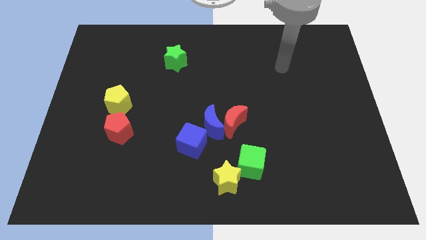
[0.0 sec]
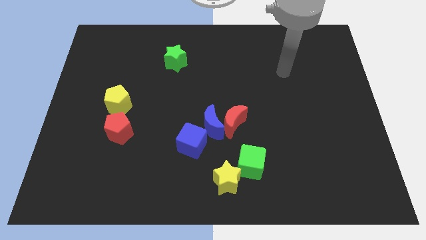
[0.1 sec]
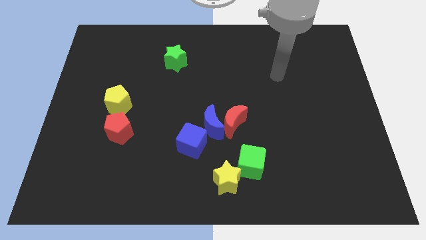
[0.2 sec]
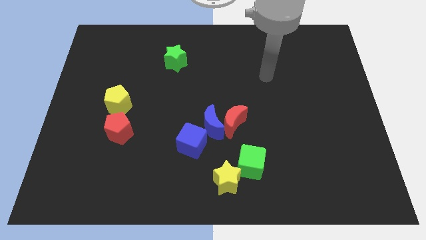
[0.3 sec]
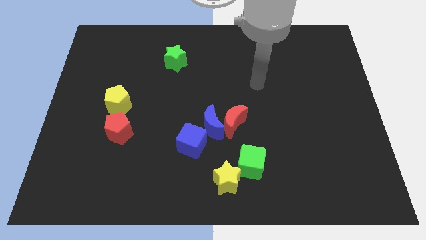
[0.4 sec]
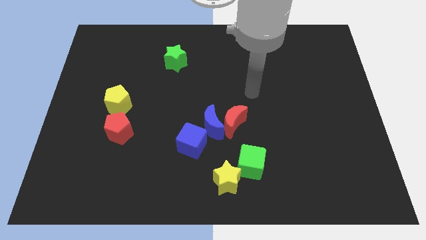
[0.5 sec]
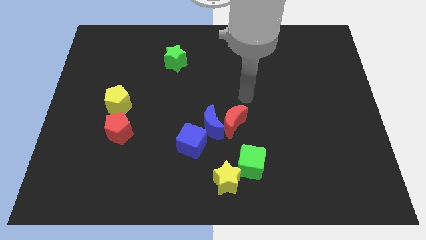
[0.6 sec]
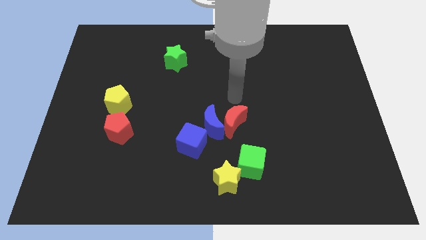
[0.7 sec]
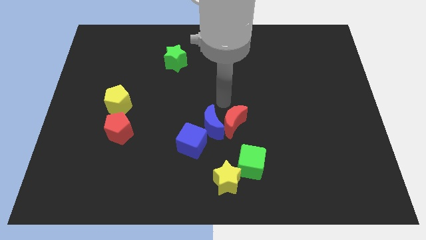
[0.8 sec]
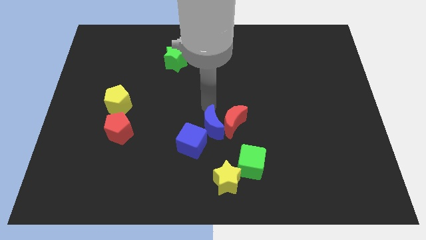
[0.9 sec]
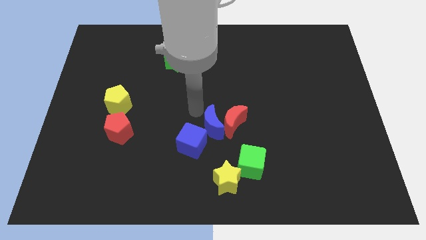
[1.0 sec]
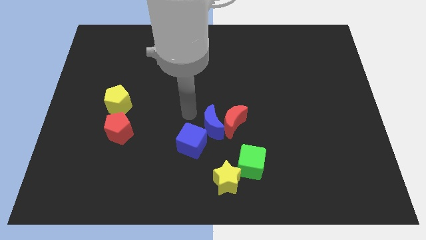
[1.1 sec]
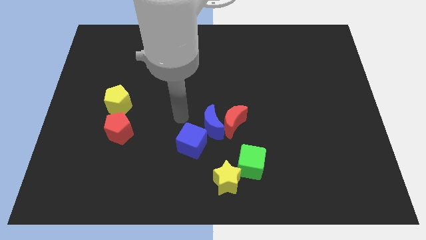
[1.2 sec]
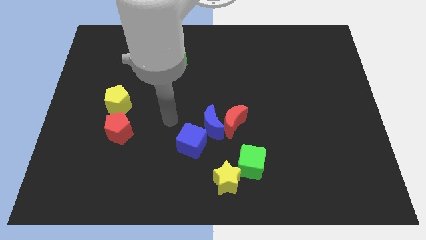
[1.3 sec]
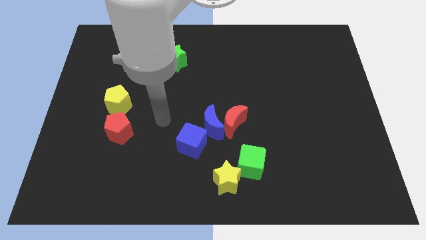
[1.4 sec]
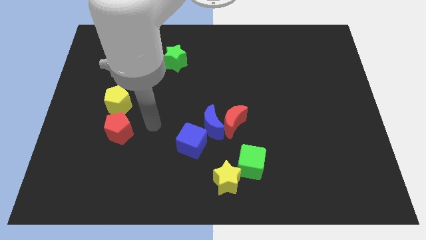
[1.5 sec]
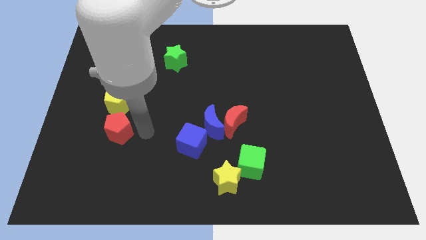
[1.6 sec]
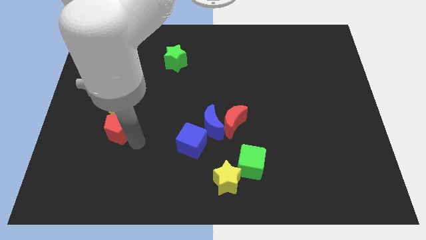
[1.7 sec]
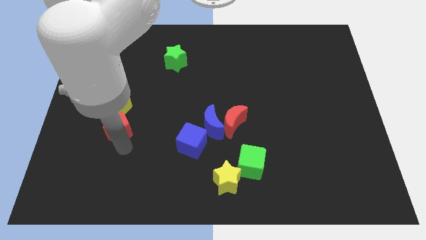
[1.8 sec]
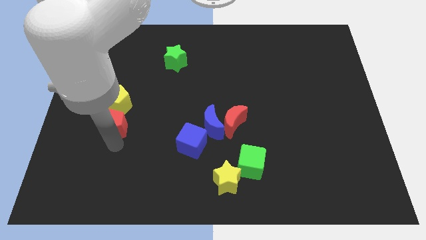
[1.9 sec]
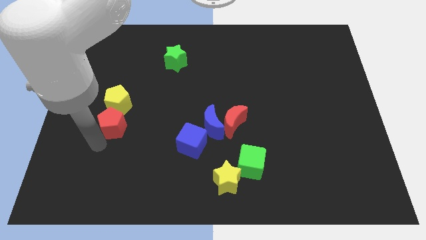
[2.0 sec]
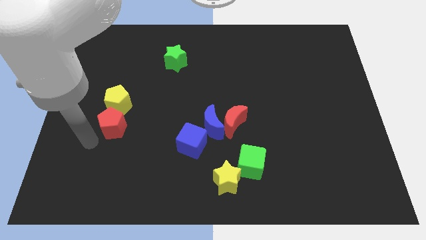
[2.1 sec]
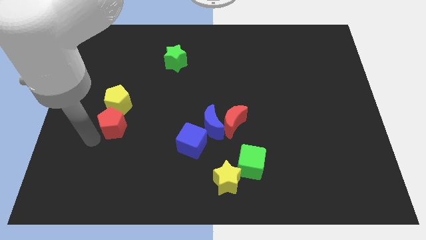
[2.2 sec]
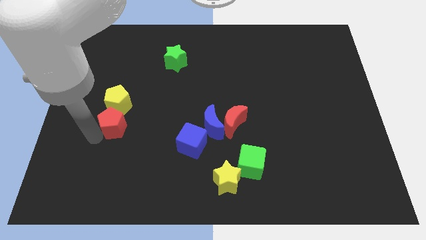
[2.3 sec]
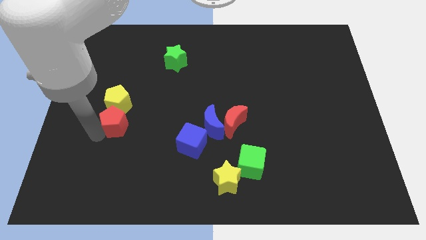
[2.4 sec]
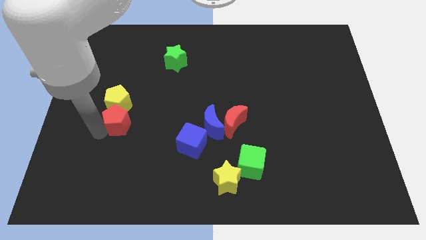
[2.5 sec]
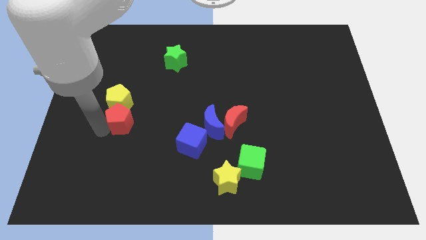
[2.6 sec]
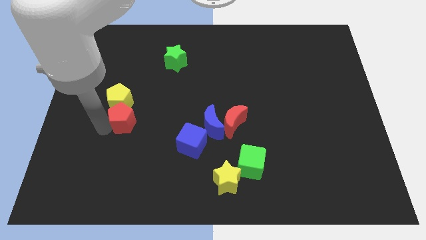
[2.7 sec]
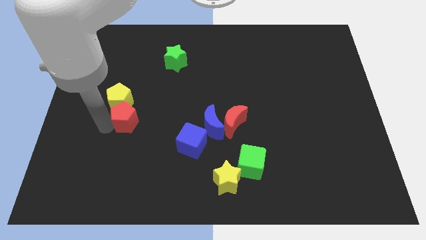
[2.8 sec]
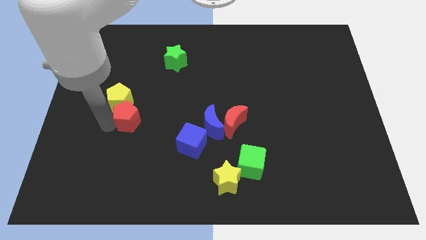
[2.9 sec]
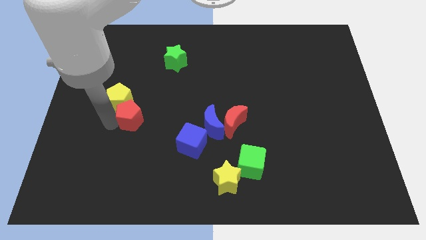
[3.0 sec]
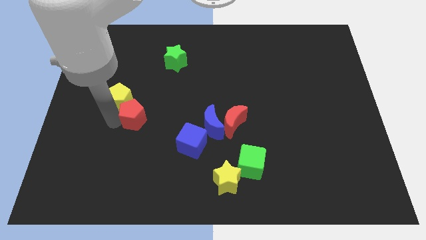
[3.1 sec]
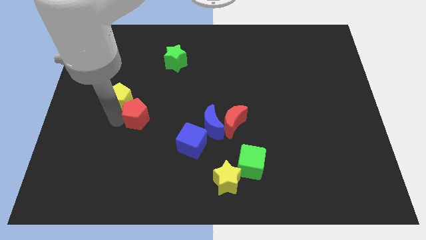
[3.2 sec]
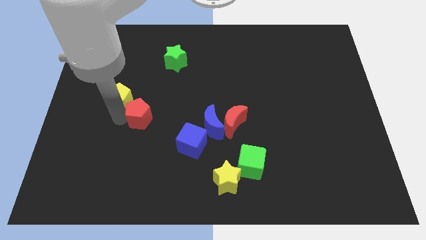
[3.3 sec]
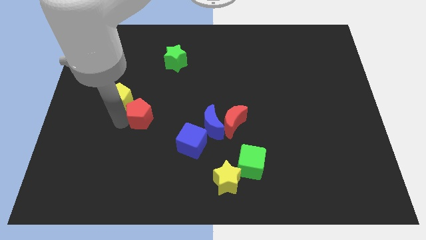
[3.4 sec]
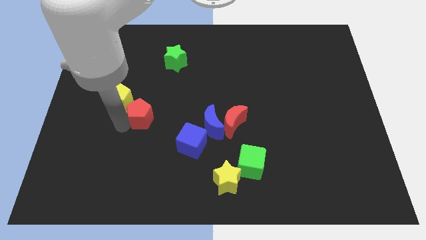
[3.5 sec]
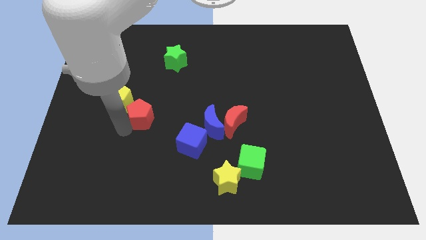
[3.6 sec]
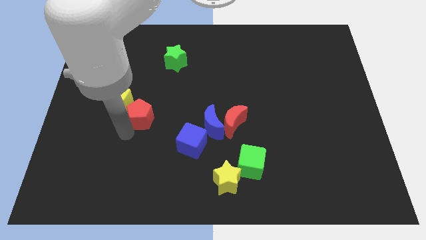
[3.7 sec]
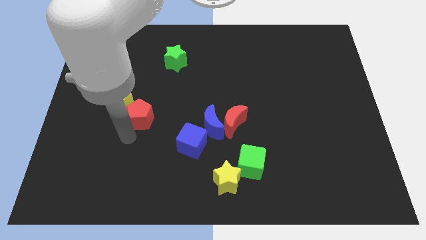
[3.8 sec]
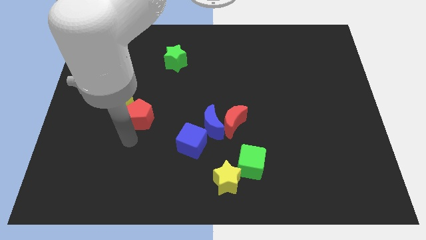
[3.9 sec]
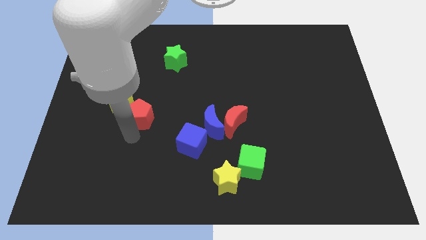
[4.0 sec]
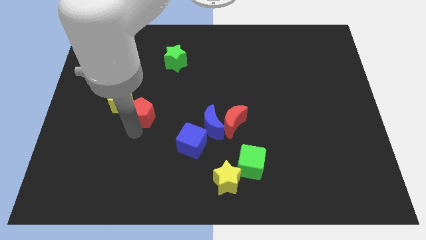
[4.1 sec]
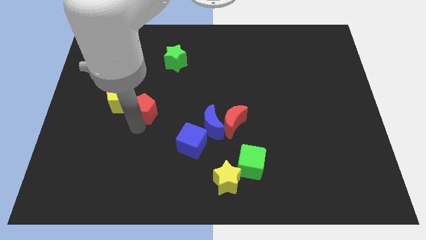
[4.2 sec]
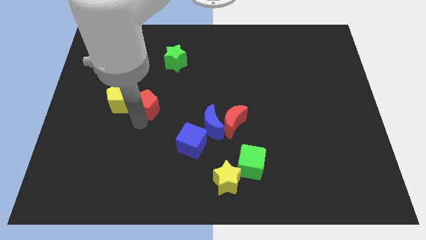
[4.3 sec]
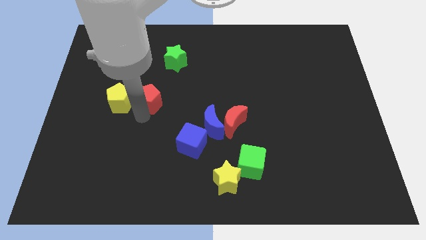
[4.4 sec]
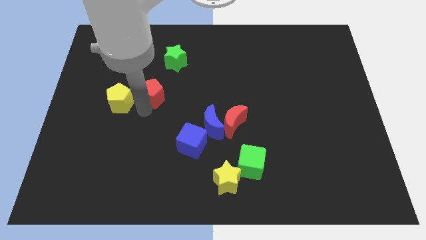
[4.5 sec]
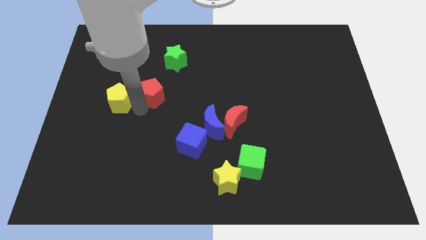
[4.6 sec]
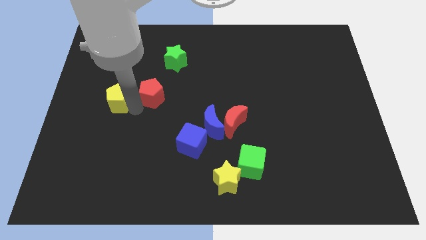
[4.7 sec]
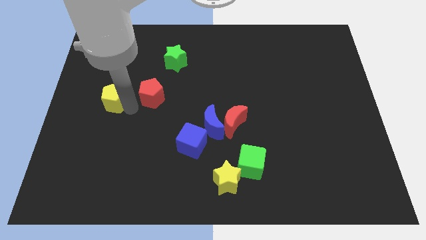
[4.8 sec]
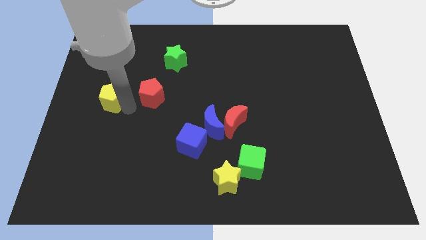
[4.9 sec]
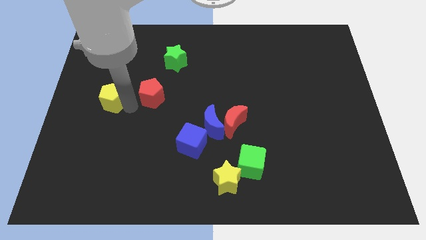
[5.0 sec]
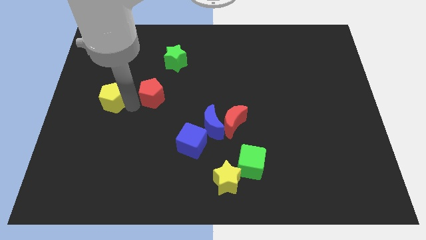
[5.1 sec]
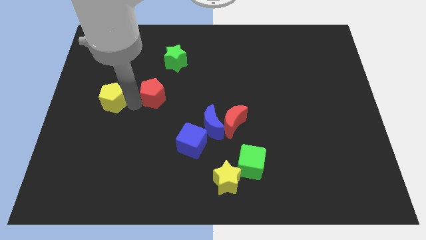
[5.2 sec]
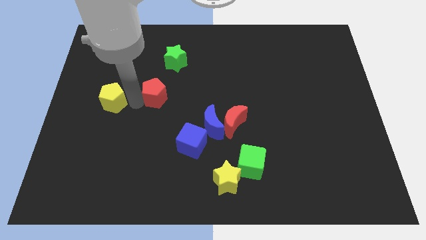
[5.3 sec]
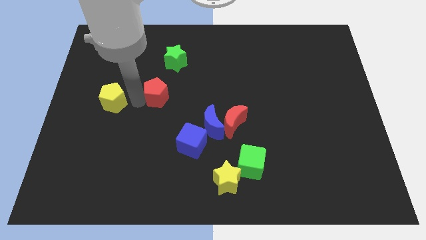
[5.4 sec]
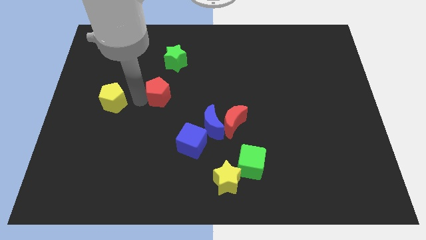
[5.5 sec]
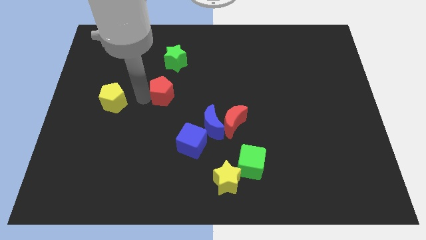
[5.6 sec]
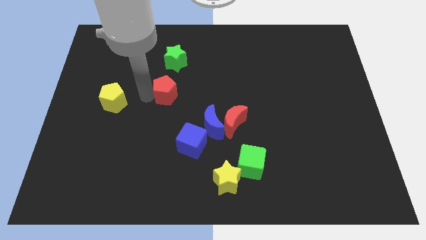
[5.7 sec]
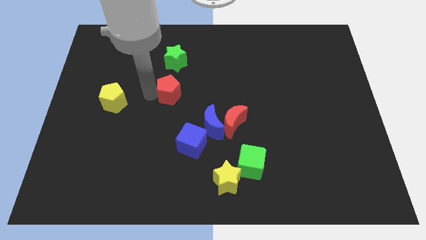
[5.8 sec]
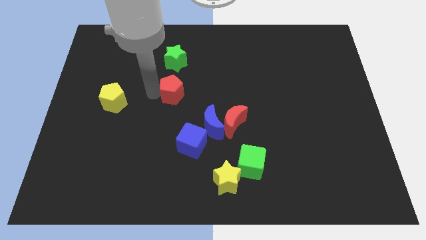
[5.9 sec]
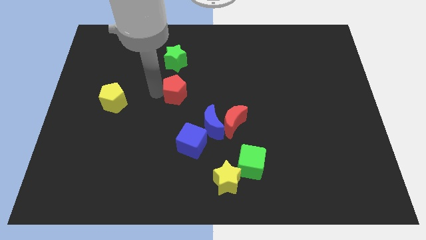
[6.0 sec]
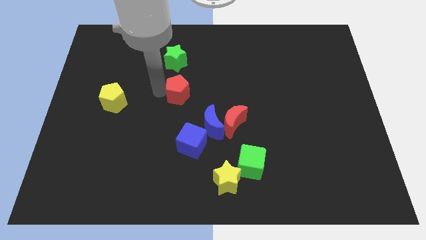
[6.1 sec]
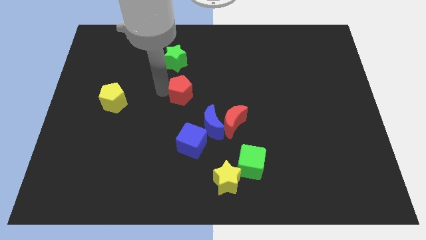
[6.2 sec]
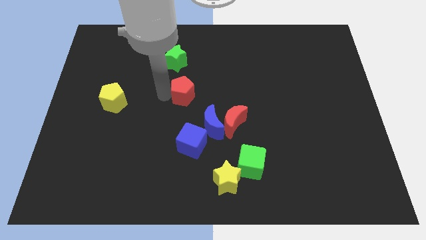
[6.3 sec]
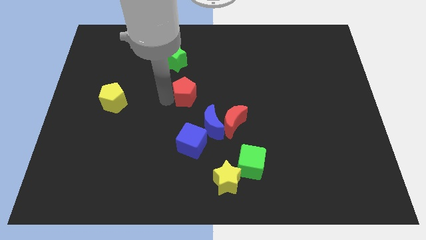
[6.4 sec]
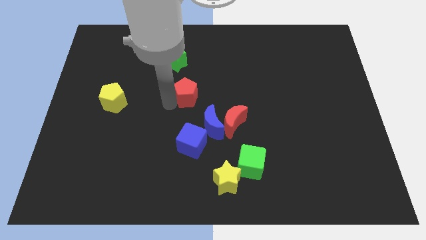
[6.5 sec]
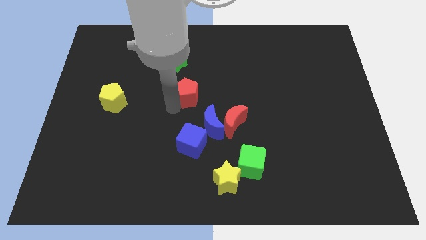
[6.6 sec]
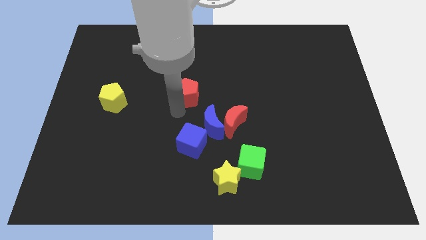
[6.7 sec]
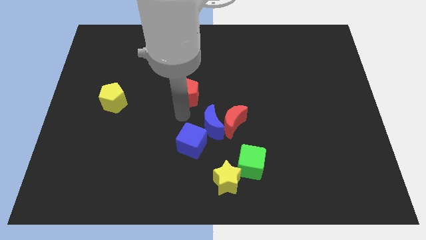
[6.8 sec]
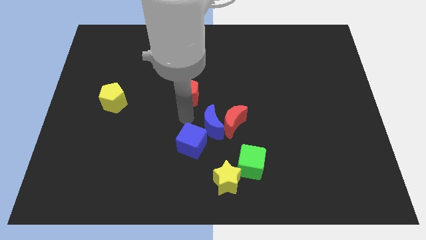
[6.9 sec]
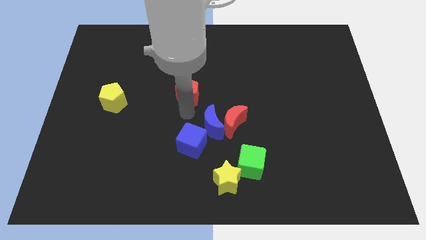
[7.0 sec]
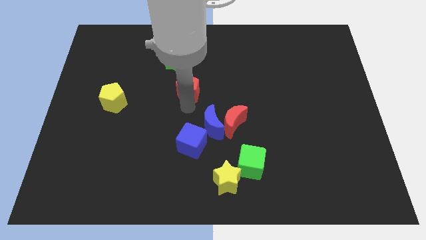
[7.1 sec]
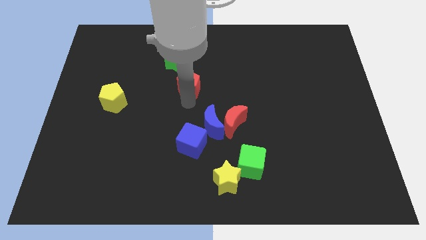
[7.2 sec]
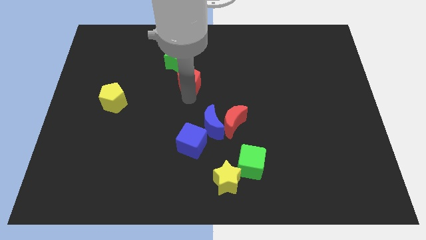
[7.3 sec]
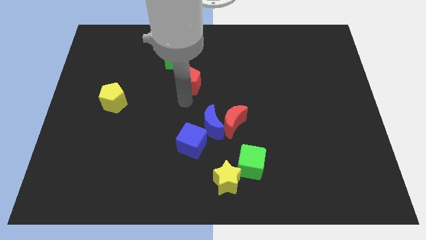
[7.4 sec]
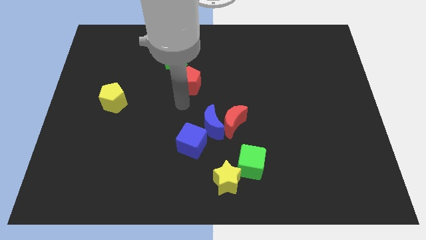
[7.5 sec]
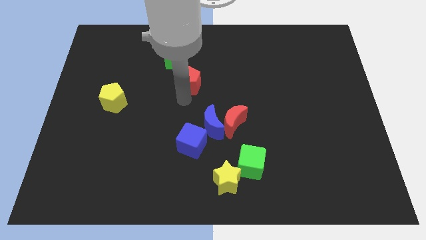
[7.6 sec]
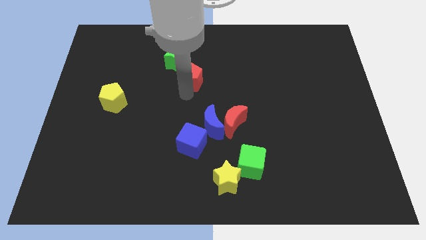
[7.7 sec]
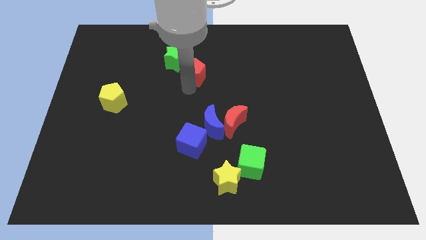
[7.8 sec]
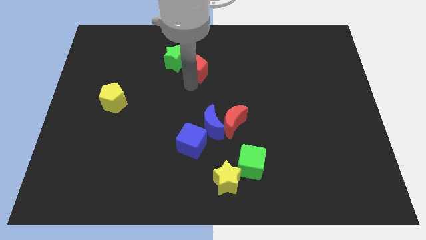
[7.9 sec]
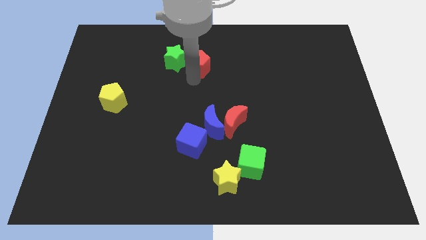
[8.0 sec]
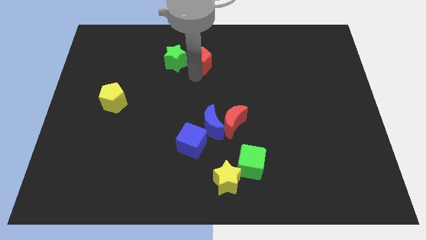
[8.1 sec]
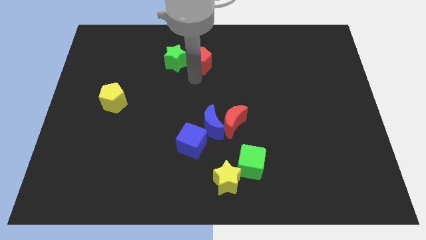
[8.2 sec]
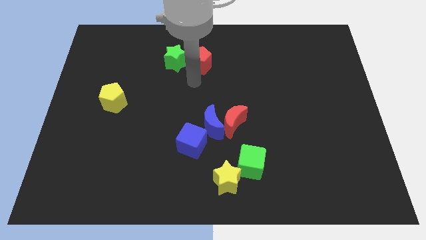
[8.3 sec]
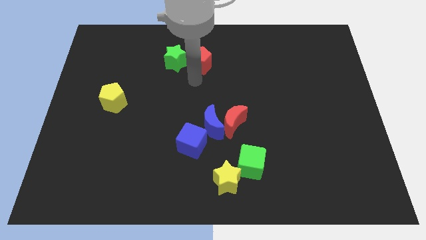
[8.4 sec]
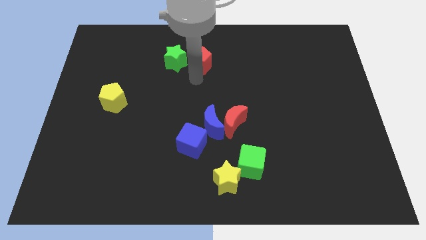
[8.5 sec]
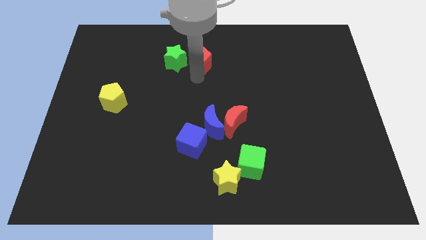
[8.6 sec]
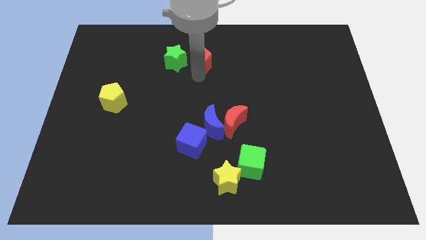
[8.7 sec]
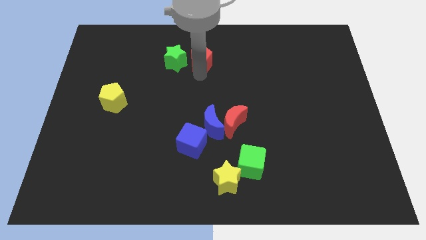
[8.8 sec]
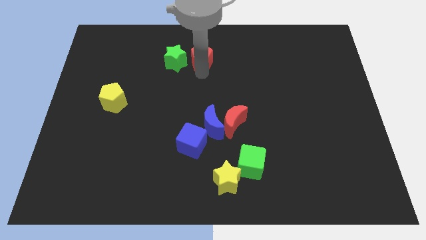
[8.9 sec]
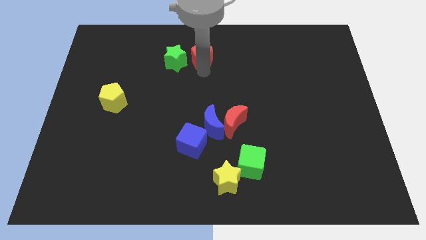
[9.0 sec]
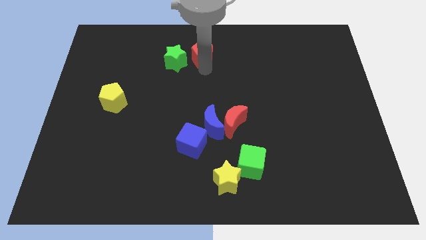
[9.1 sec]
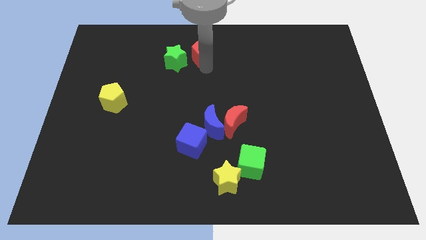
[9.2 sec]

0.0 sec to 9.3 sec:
put the red pentagon to the top side
